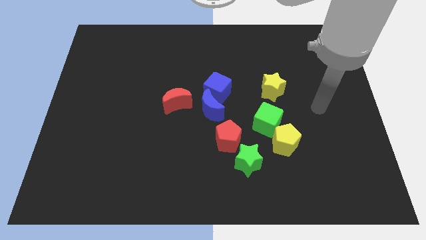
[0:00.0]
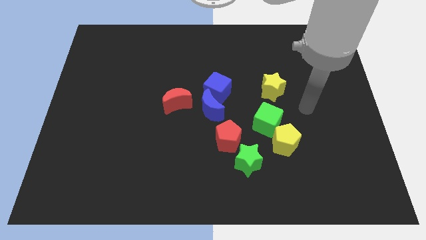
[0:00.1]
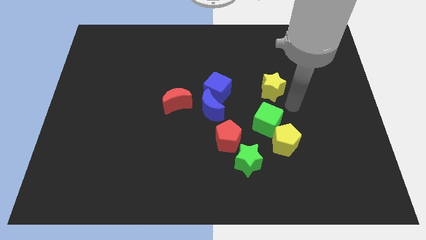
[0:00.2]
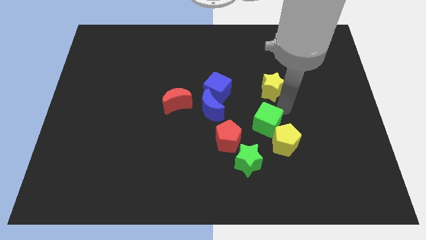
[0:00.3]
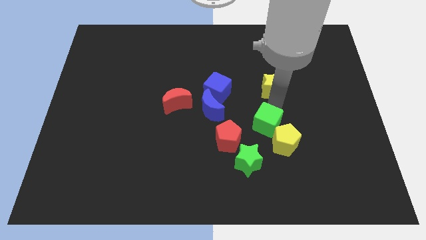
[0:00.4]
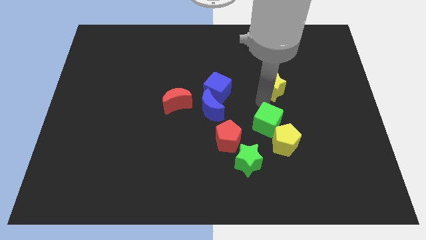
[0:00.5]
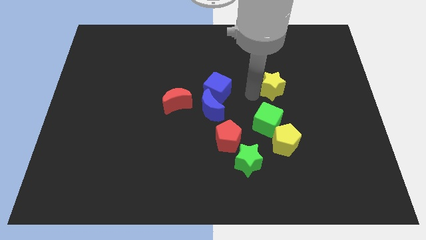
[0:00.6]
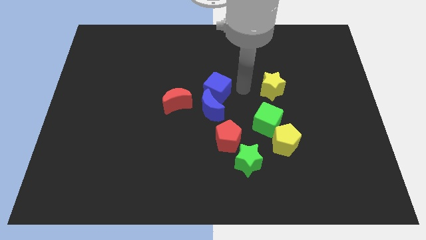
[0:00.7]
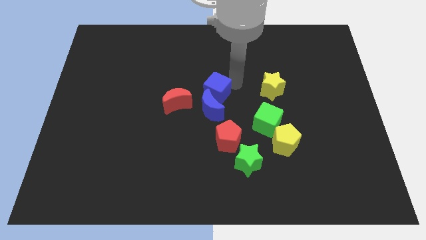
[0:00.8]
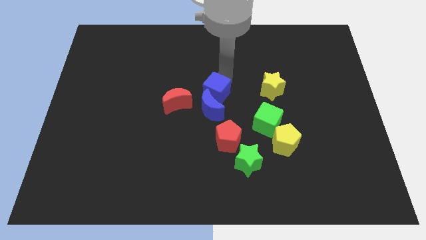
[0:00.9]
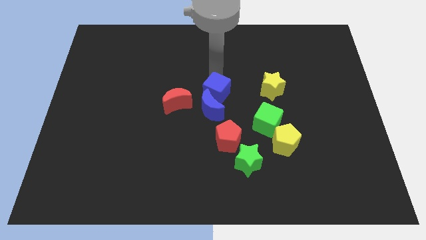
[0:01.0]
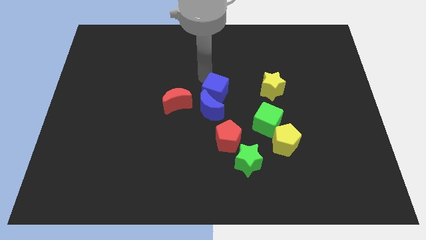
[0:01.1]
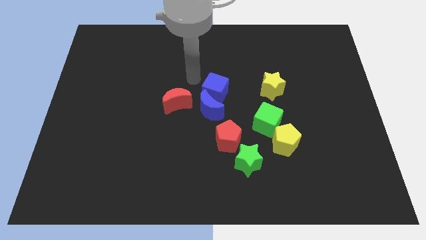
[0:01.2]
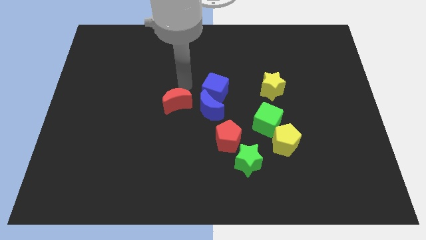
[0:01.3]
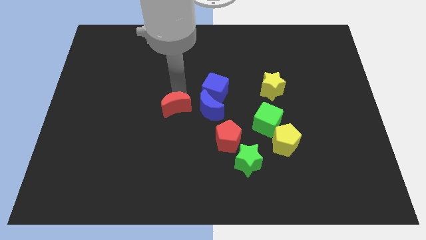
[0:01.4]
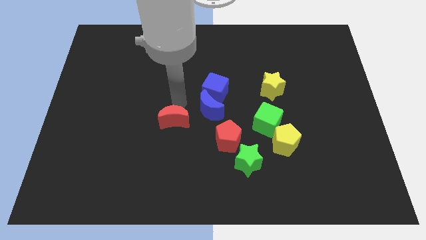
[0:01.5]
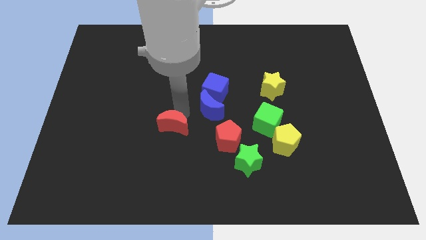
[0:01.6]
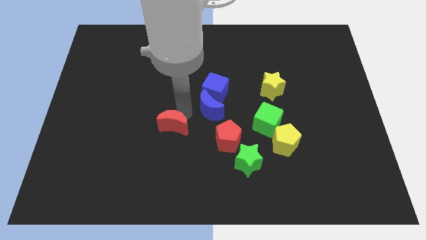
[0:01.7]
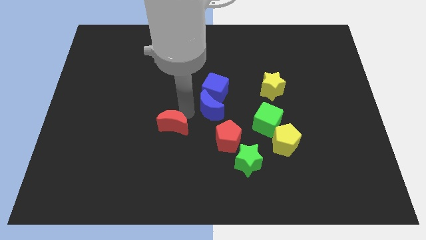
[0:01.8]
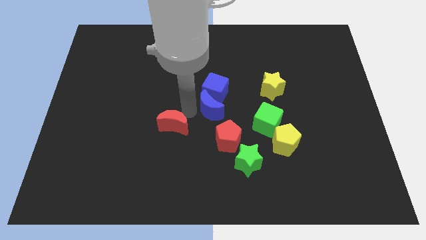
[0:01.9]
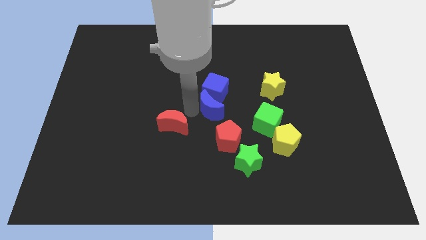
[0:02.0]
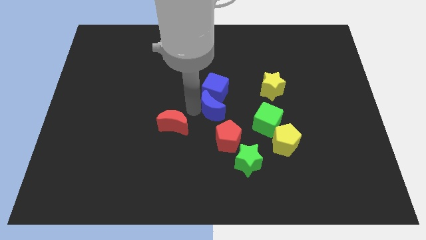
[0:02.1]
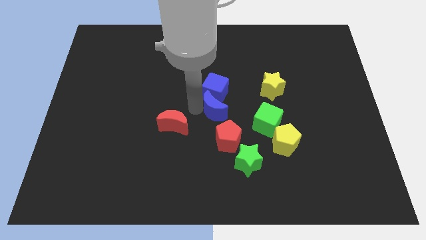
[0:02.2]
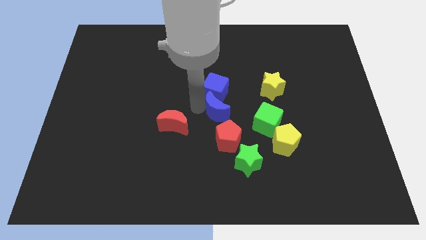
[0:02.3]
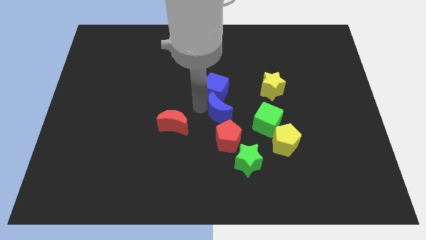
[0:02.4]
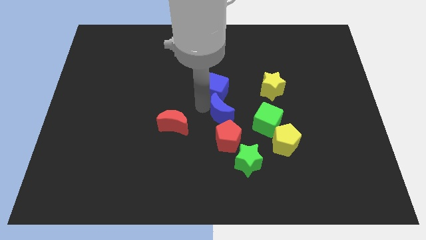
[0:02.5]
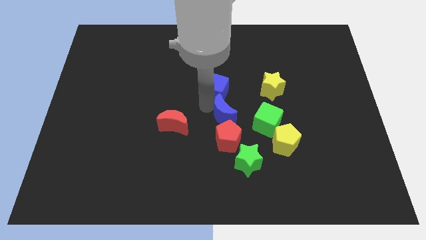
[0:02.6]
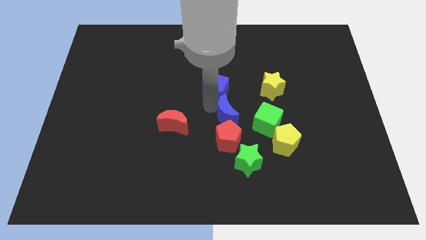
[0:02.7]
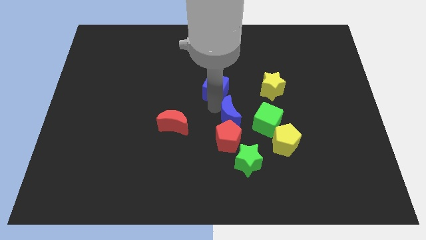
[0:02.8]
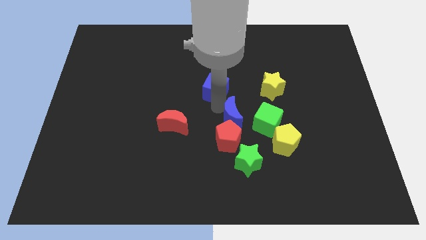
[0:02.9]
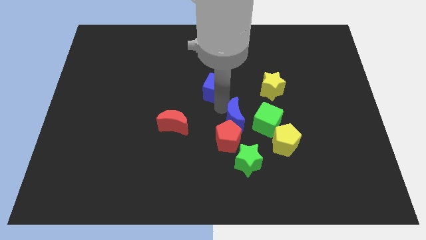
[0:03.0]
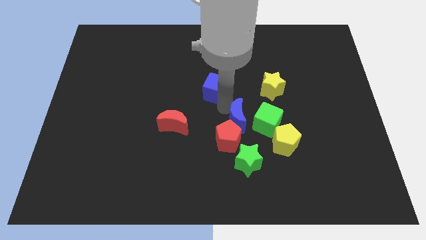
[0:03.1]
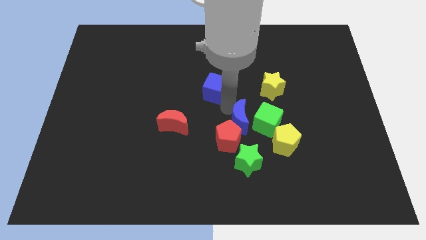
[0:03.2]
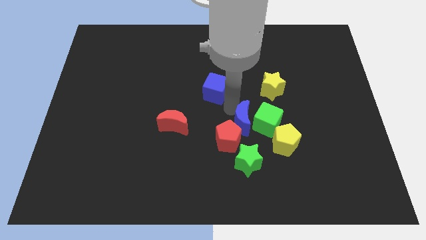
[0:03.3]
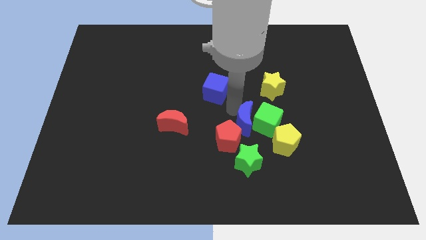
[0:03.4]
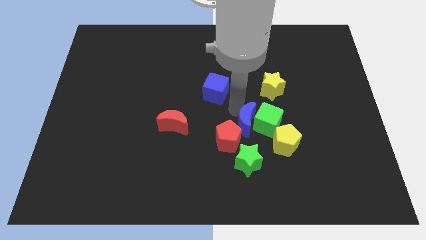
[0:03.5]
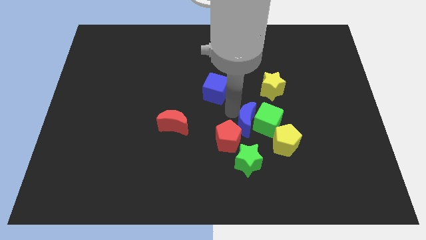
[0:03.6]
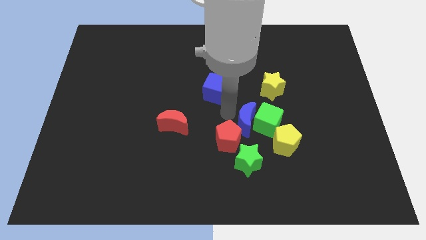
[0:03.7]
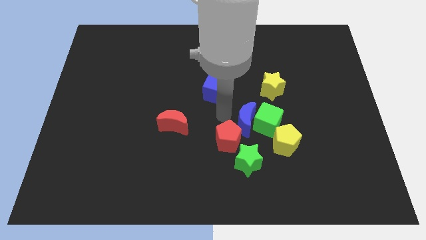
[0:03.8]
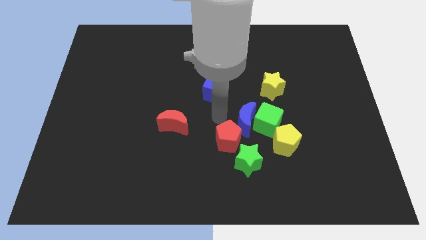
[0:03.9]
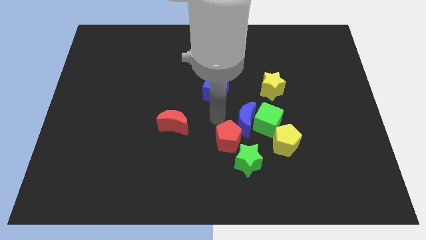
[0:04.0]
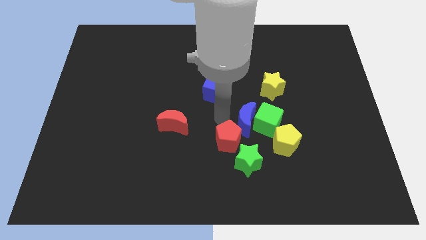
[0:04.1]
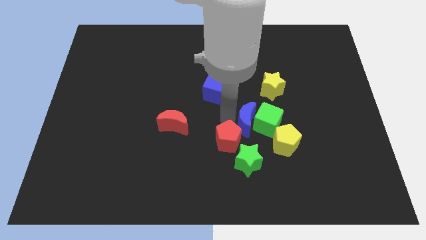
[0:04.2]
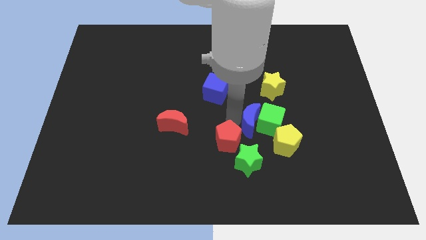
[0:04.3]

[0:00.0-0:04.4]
move the blue moon away from the blue cube, red moon, and red pentagon

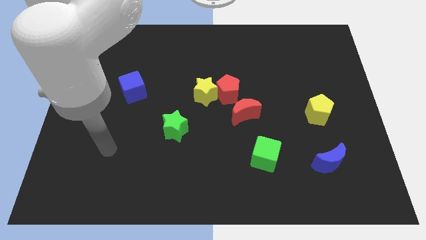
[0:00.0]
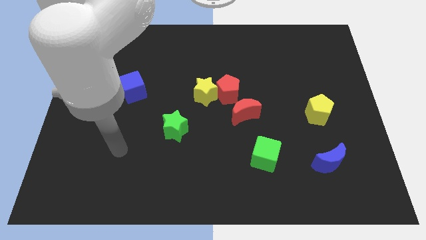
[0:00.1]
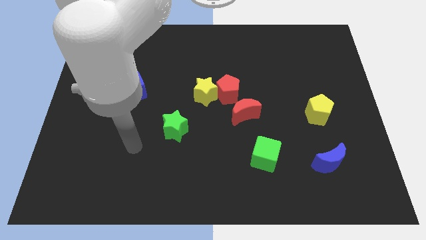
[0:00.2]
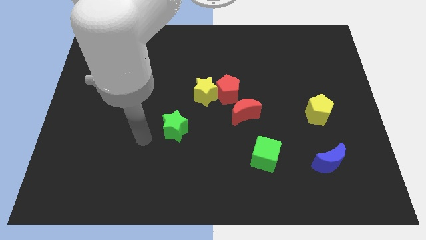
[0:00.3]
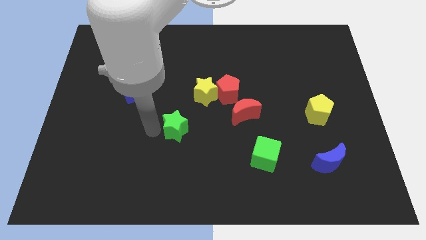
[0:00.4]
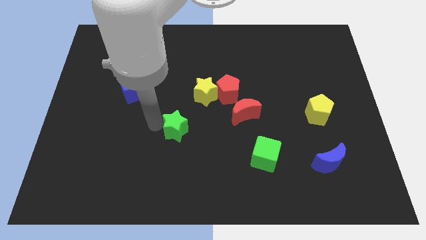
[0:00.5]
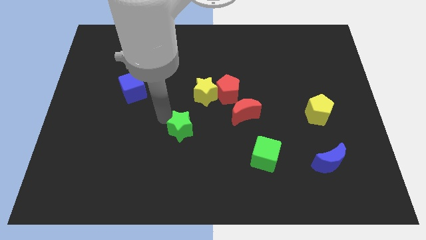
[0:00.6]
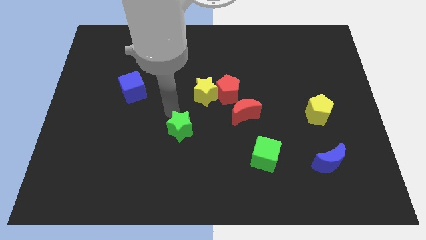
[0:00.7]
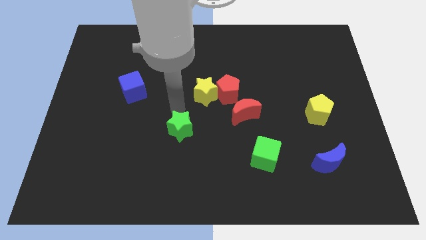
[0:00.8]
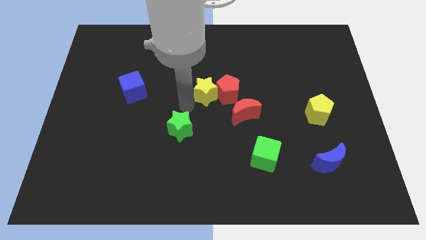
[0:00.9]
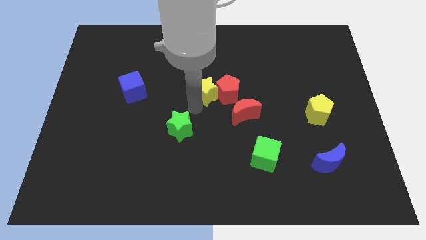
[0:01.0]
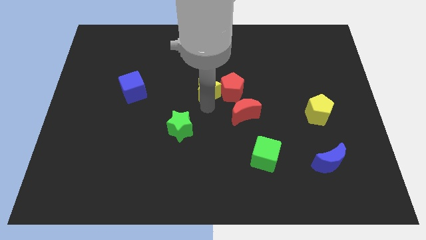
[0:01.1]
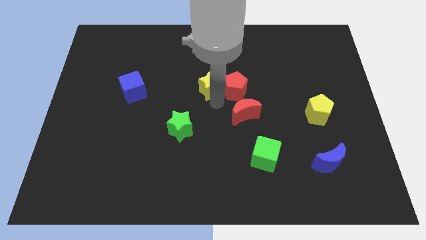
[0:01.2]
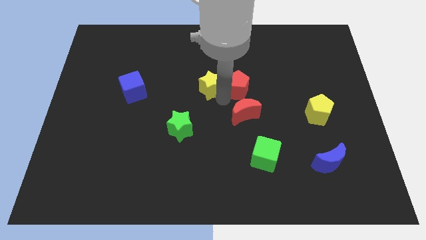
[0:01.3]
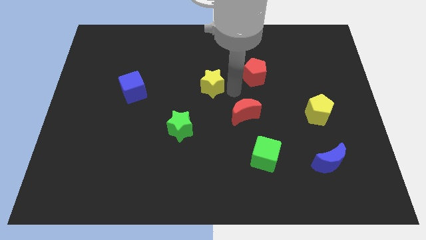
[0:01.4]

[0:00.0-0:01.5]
separate the yellow star from the red pentagon

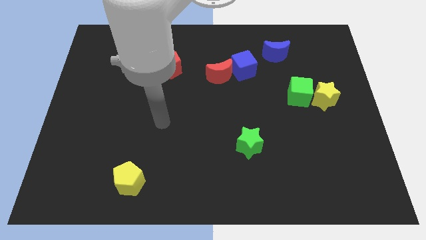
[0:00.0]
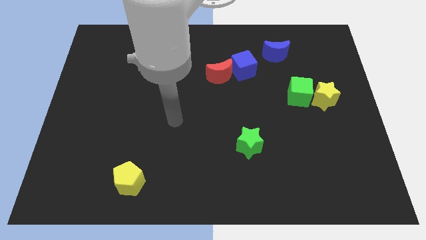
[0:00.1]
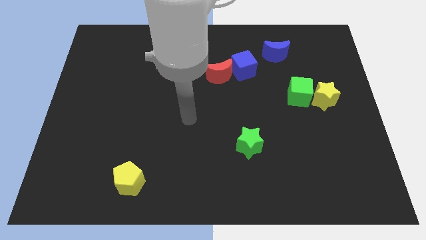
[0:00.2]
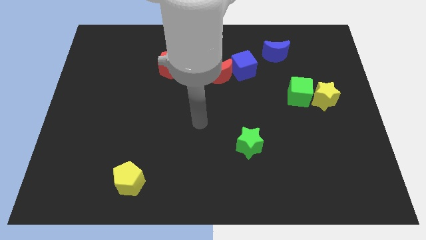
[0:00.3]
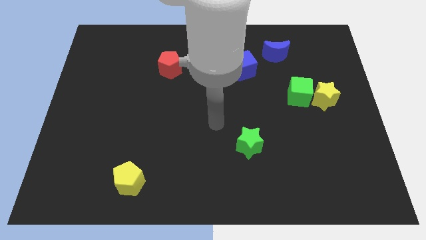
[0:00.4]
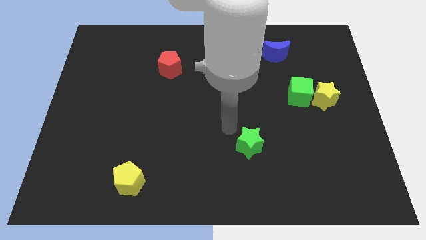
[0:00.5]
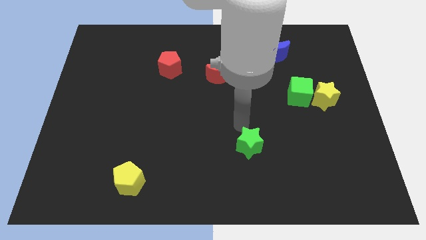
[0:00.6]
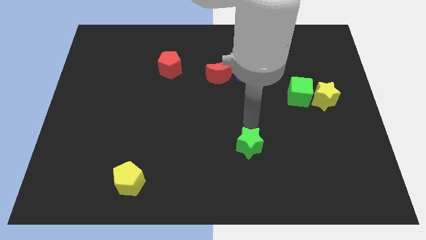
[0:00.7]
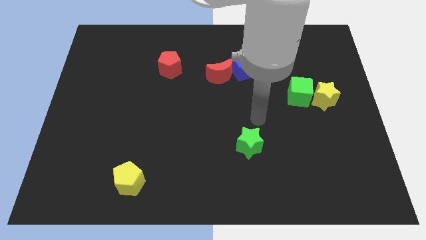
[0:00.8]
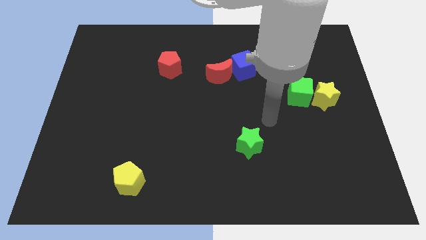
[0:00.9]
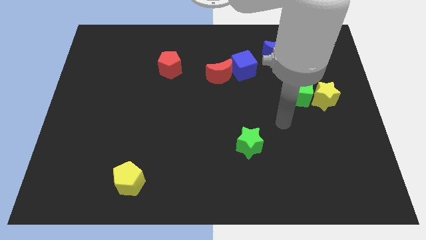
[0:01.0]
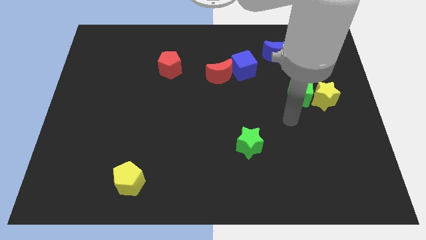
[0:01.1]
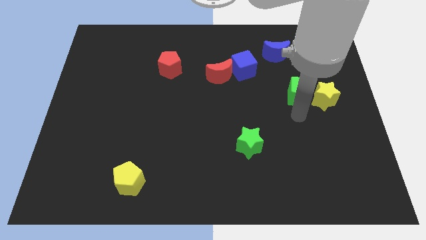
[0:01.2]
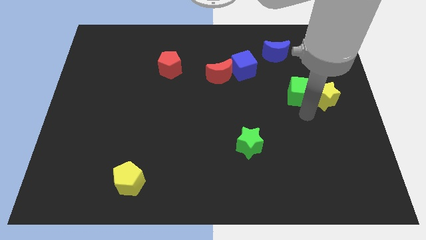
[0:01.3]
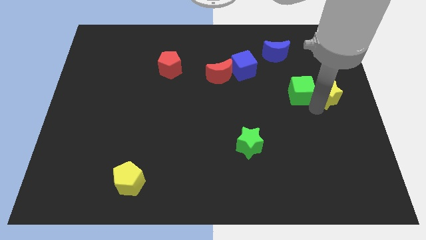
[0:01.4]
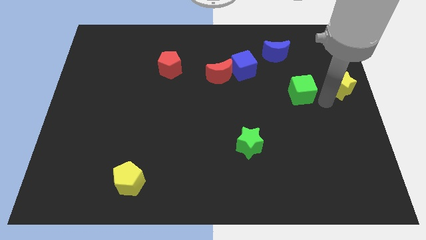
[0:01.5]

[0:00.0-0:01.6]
separate the green cube from the yellow star

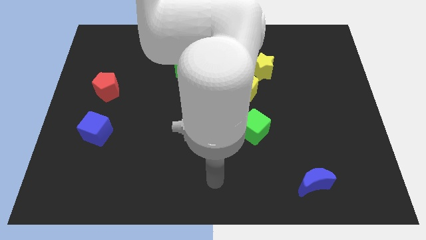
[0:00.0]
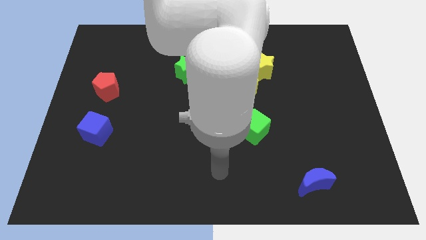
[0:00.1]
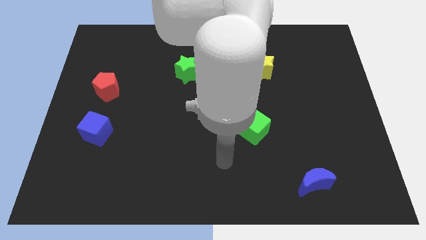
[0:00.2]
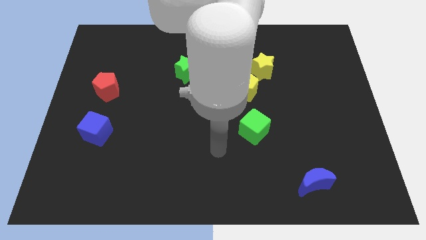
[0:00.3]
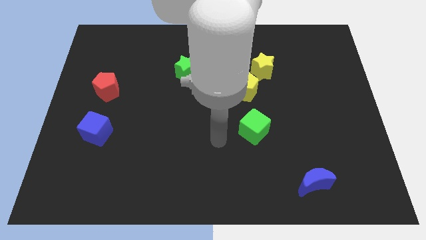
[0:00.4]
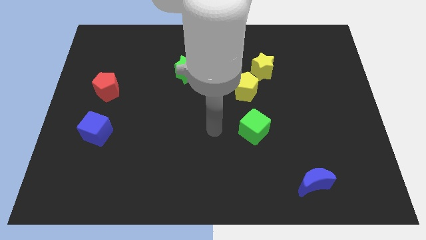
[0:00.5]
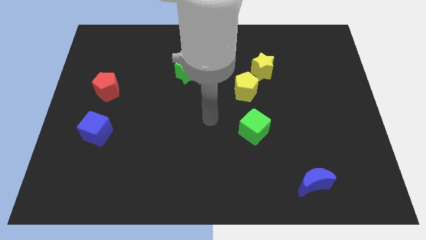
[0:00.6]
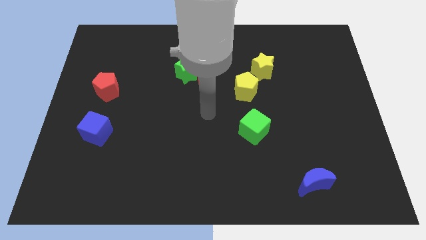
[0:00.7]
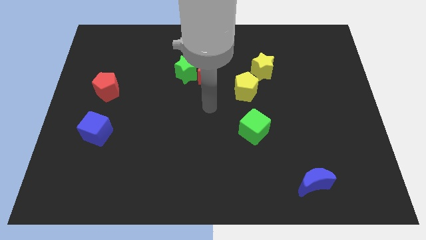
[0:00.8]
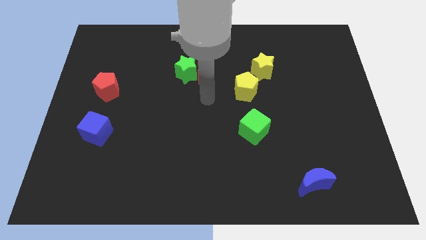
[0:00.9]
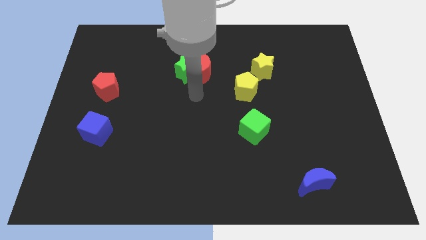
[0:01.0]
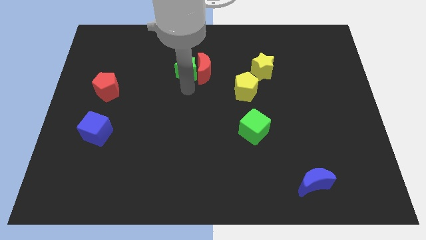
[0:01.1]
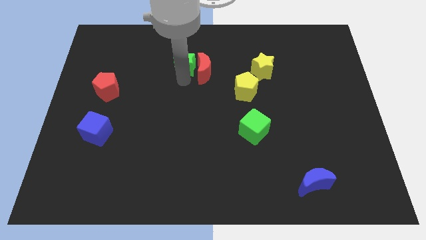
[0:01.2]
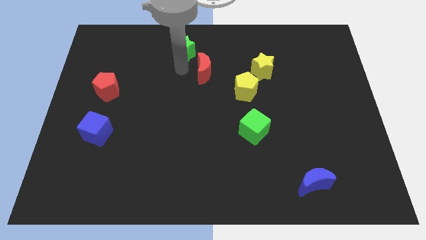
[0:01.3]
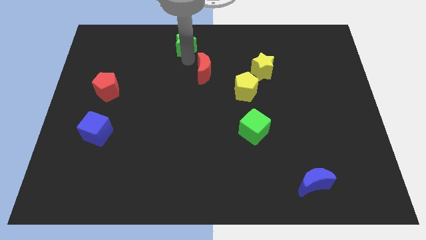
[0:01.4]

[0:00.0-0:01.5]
separate the red moon from the green star

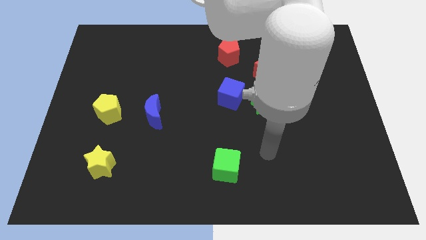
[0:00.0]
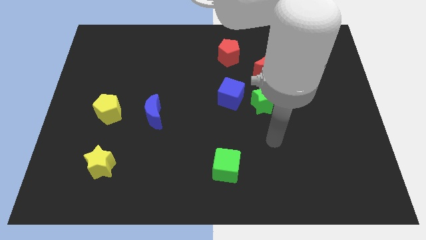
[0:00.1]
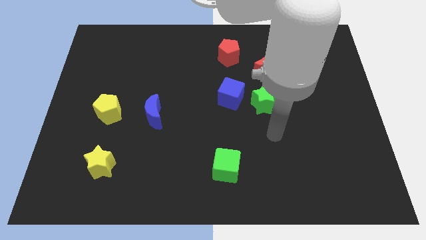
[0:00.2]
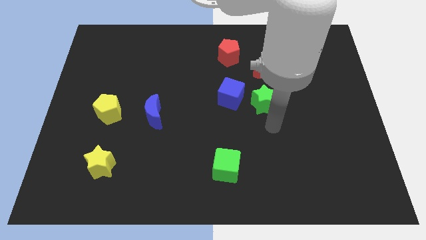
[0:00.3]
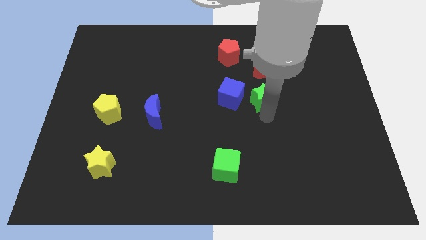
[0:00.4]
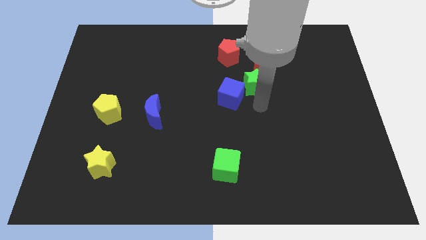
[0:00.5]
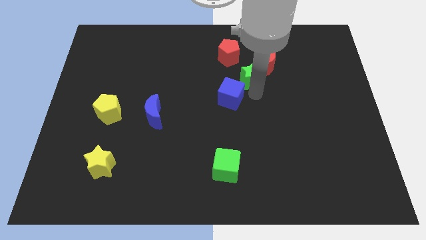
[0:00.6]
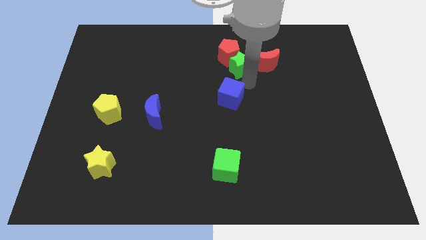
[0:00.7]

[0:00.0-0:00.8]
move the blue cube away from the green star
